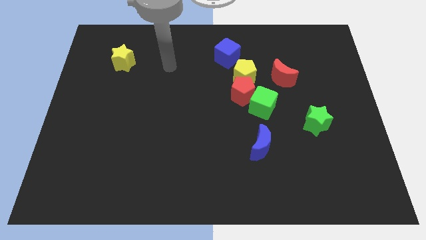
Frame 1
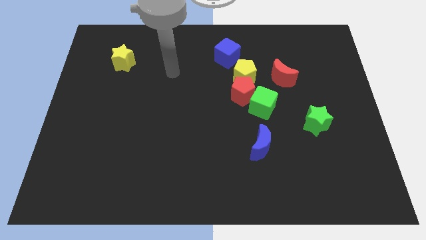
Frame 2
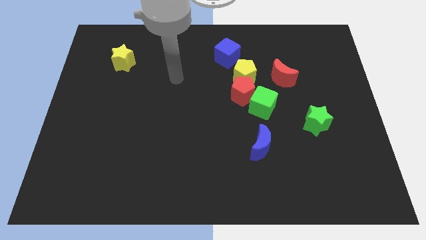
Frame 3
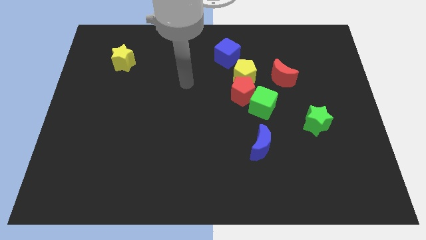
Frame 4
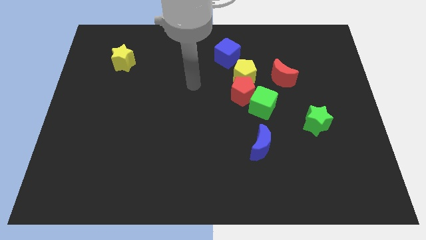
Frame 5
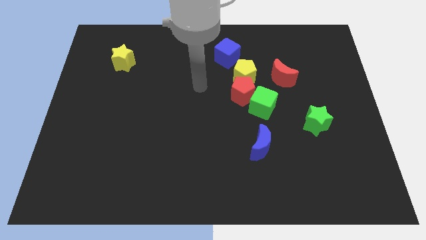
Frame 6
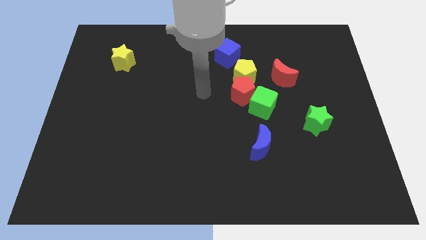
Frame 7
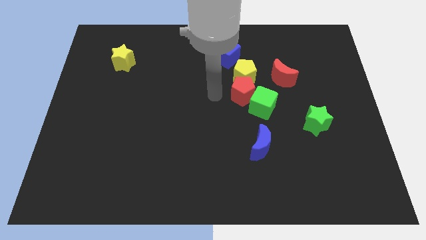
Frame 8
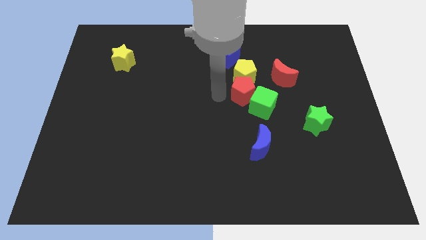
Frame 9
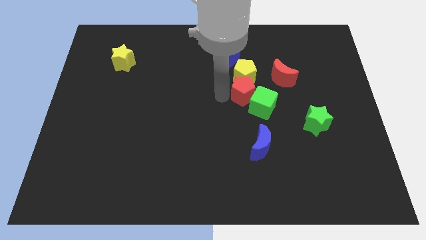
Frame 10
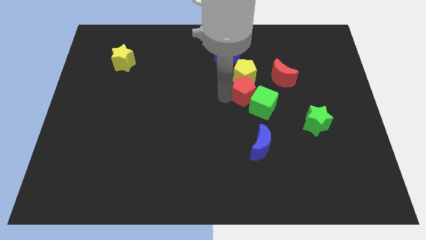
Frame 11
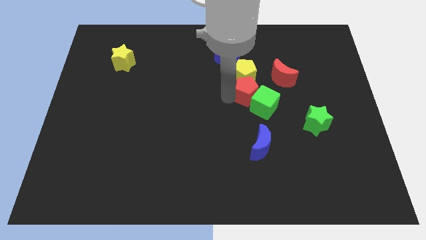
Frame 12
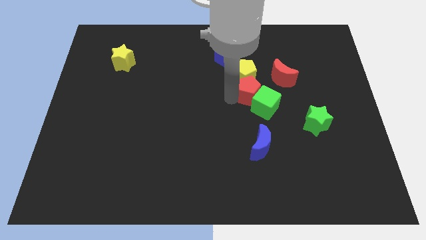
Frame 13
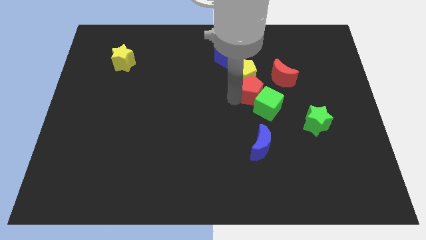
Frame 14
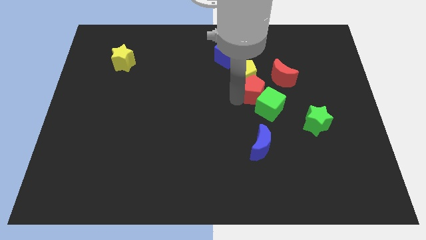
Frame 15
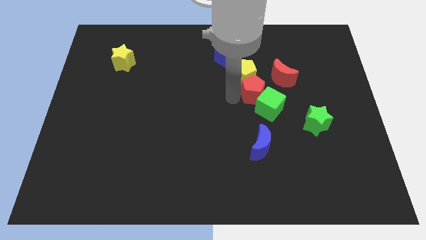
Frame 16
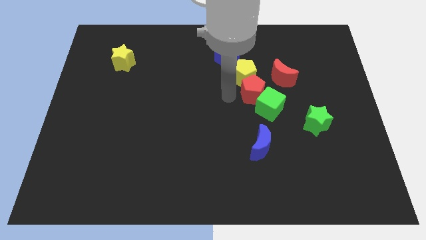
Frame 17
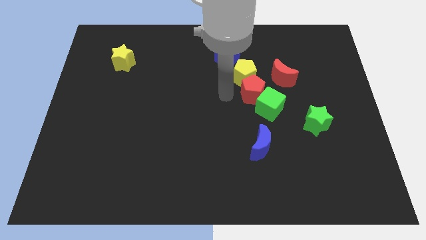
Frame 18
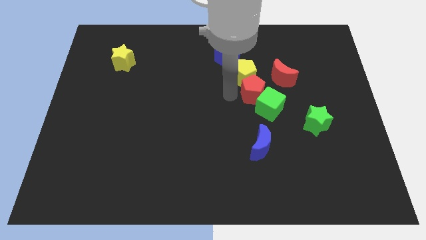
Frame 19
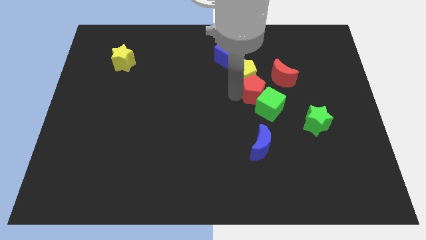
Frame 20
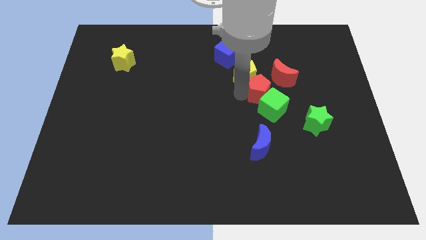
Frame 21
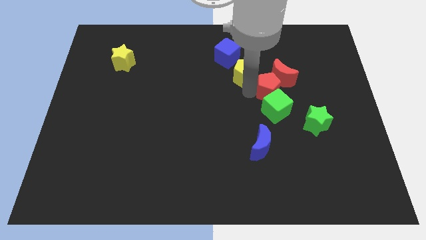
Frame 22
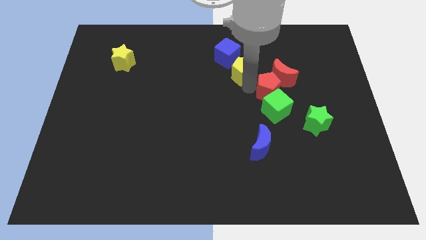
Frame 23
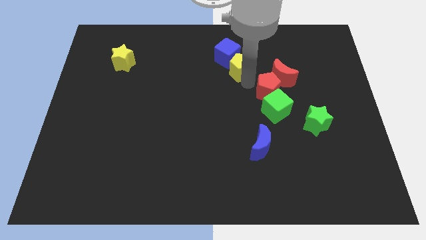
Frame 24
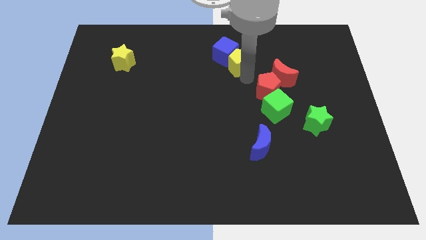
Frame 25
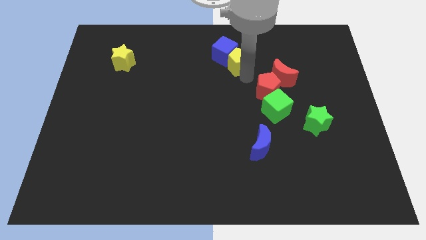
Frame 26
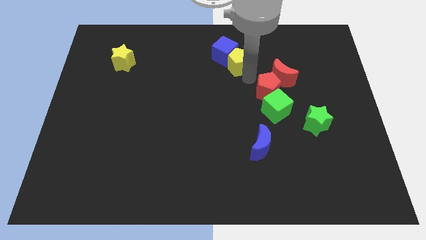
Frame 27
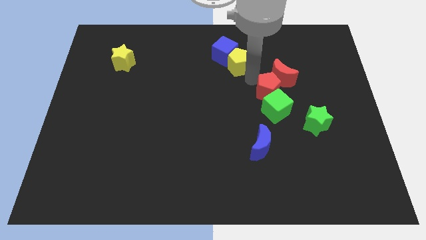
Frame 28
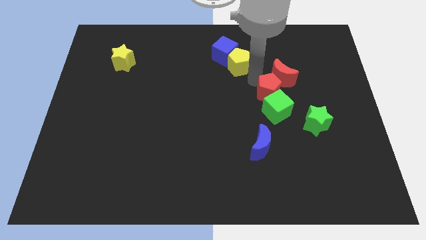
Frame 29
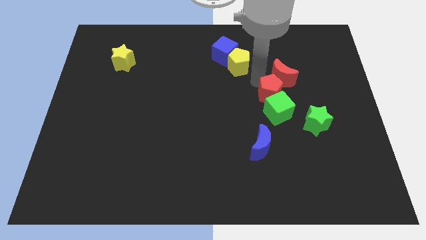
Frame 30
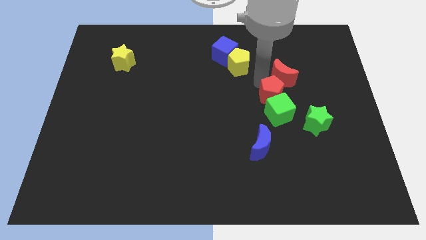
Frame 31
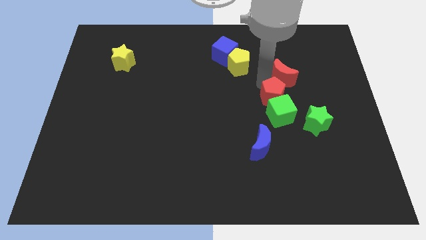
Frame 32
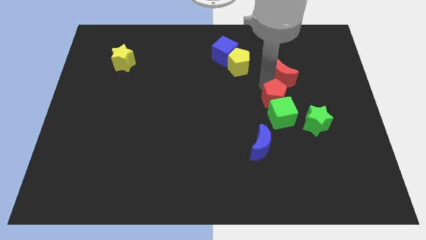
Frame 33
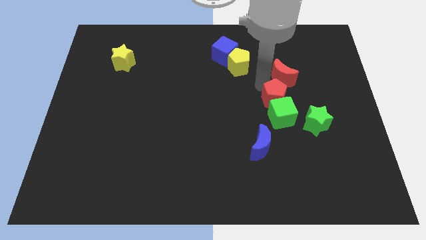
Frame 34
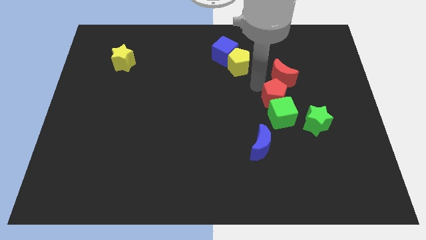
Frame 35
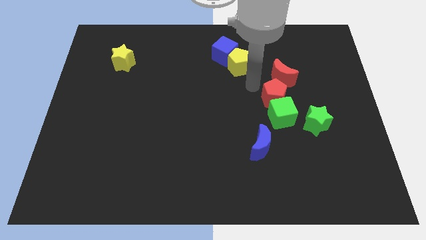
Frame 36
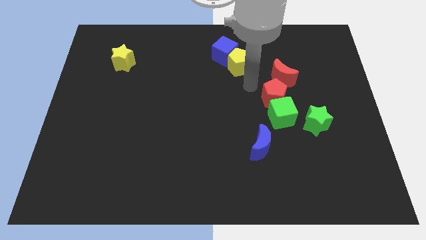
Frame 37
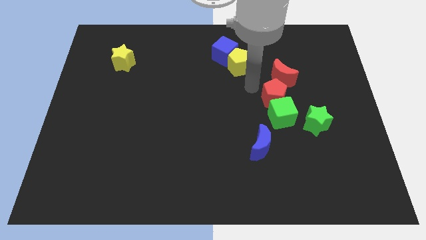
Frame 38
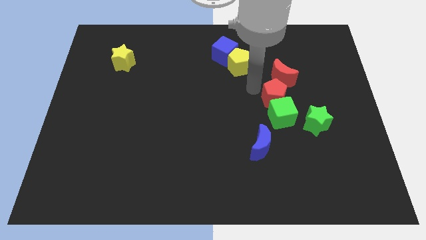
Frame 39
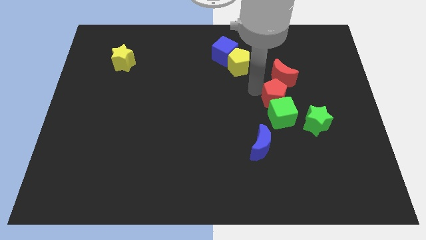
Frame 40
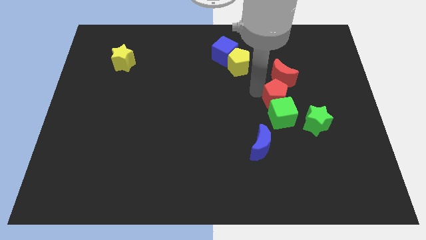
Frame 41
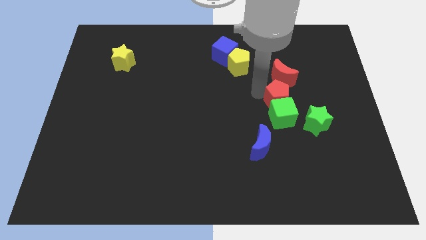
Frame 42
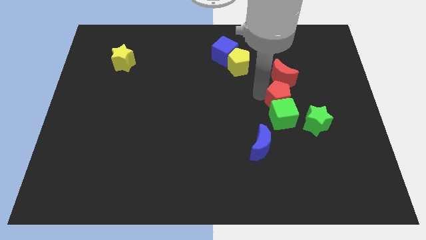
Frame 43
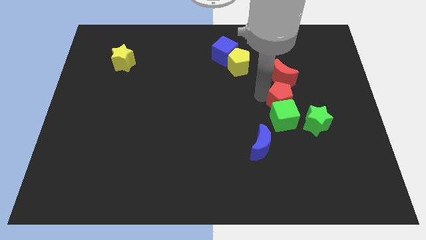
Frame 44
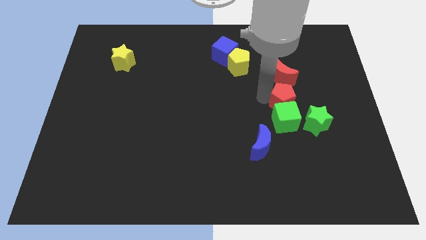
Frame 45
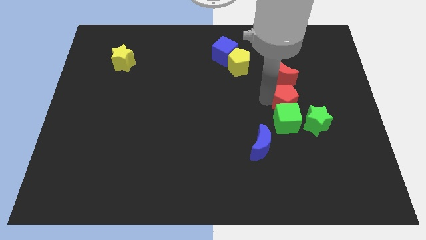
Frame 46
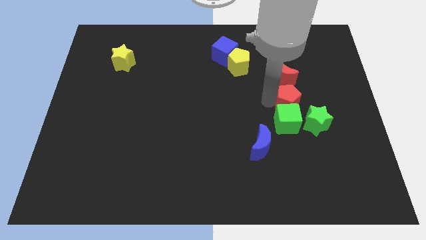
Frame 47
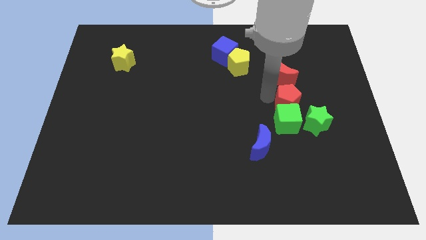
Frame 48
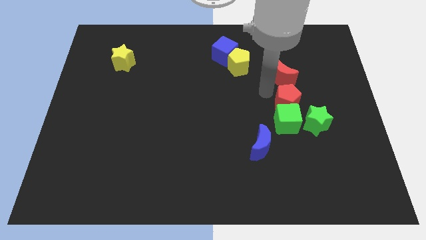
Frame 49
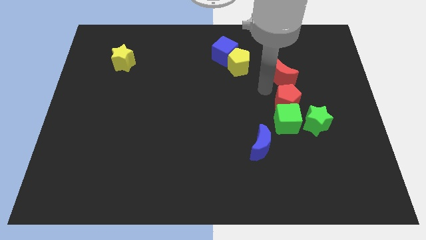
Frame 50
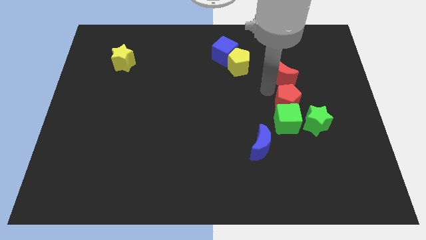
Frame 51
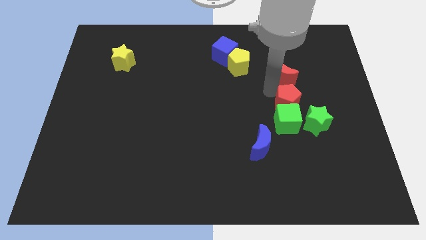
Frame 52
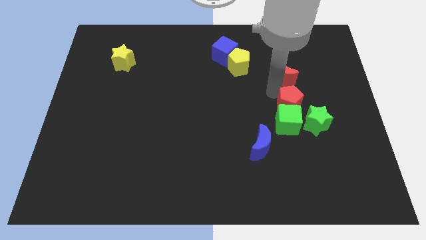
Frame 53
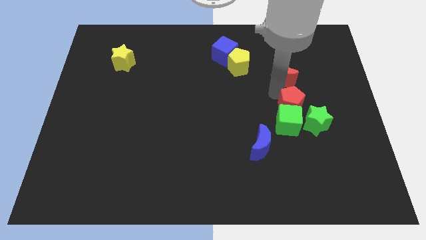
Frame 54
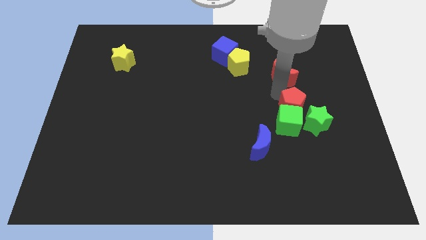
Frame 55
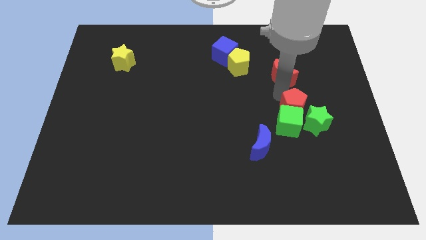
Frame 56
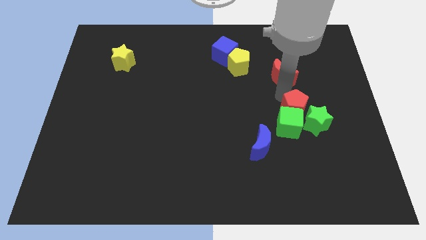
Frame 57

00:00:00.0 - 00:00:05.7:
push the red pentagon to the green star

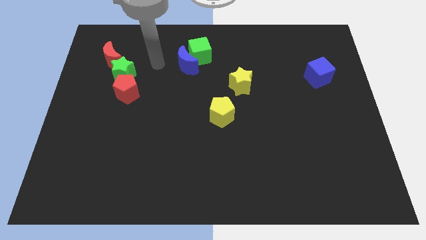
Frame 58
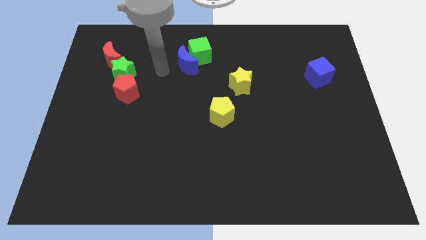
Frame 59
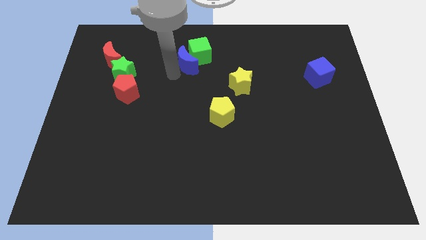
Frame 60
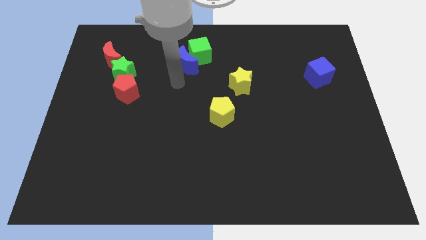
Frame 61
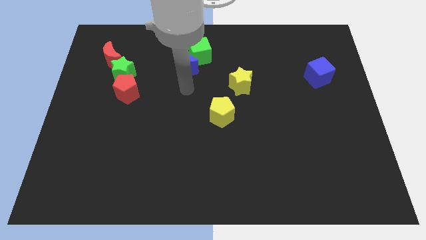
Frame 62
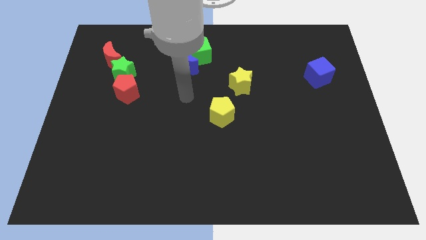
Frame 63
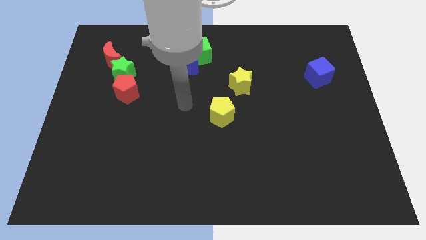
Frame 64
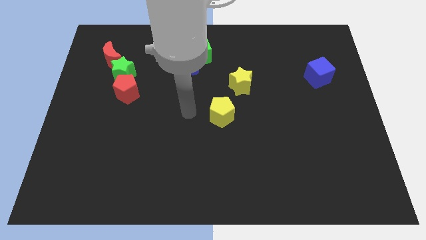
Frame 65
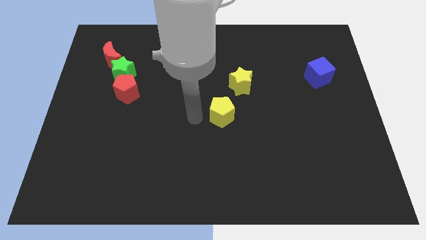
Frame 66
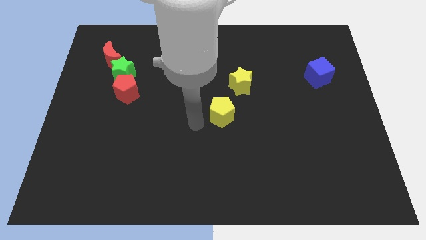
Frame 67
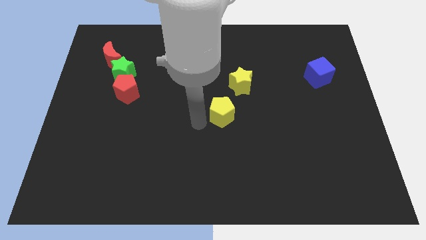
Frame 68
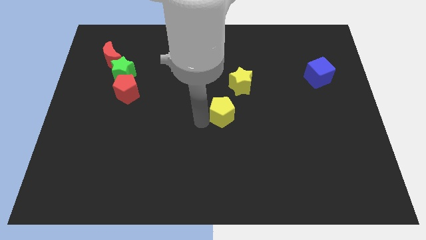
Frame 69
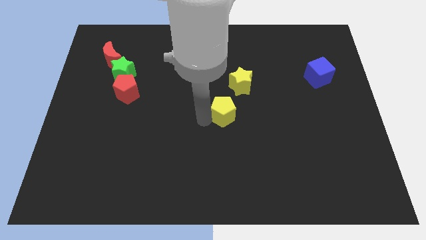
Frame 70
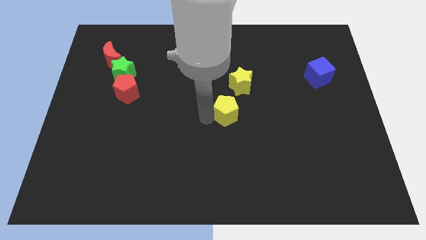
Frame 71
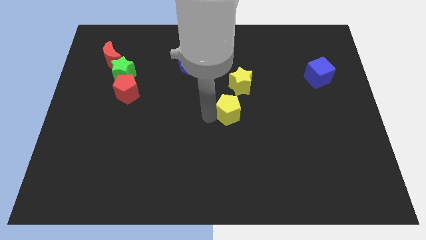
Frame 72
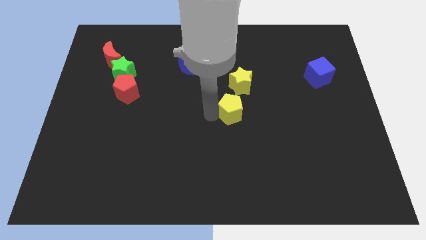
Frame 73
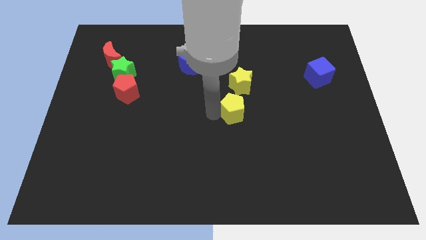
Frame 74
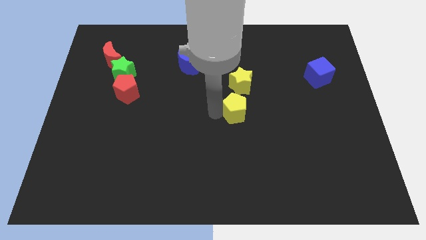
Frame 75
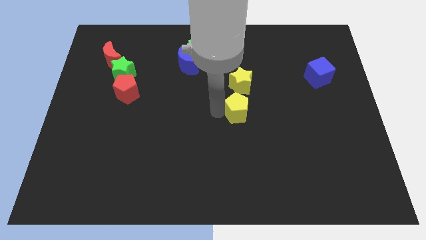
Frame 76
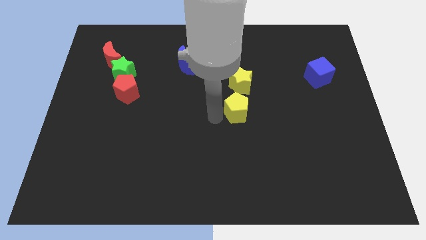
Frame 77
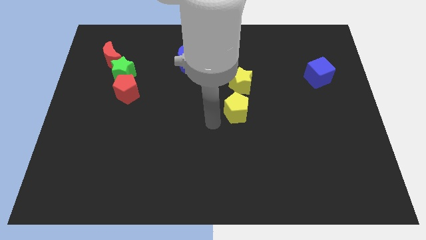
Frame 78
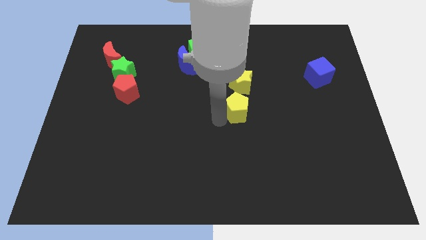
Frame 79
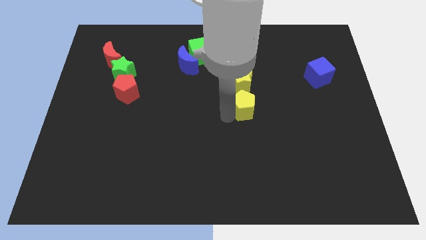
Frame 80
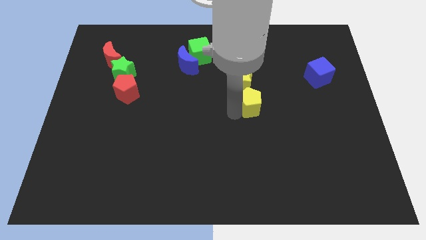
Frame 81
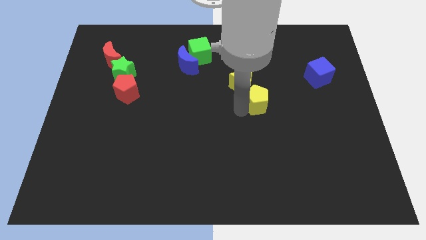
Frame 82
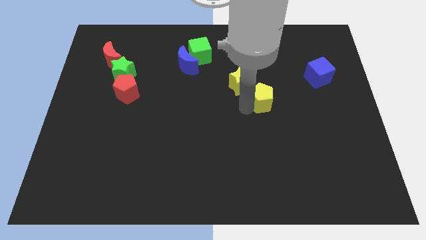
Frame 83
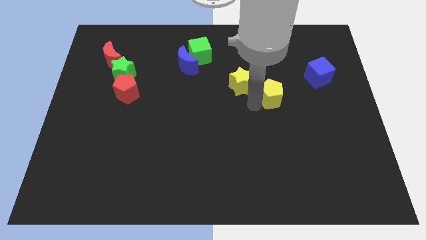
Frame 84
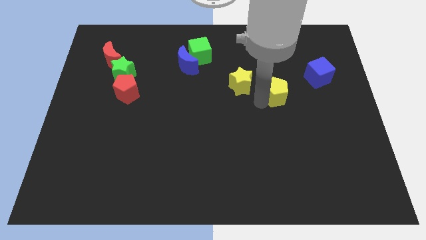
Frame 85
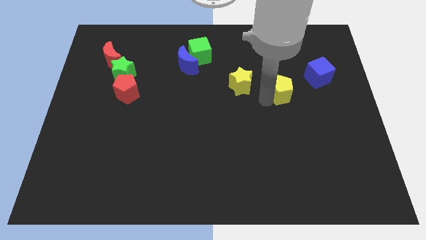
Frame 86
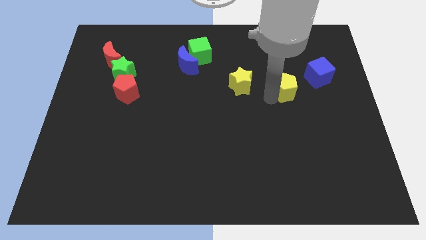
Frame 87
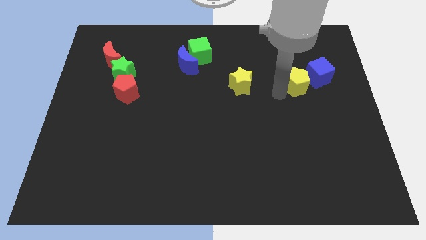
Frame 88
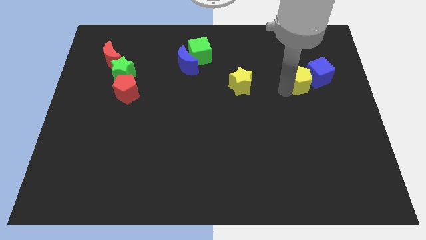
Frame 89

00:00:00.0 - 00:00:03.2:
move the yellow pentagon towards the blue cube
